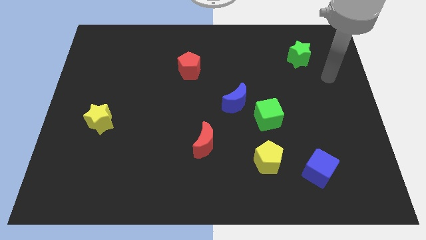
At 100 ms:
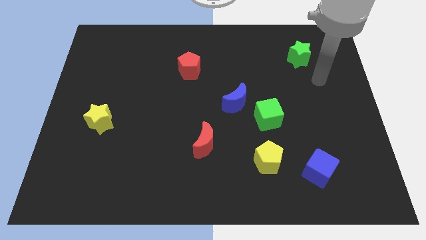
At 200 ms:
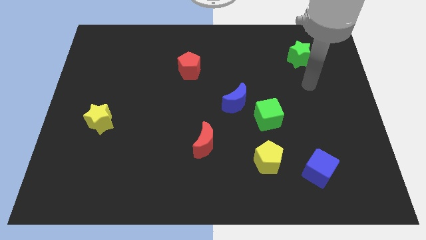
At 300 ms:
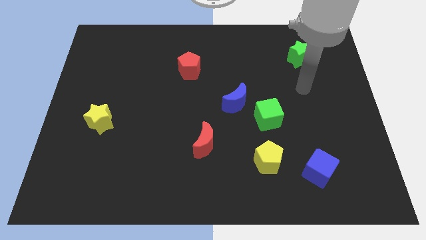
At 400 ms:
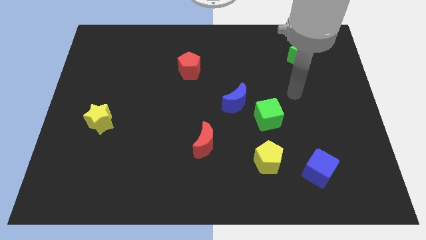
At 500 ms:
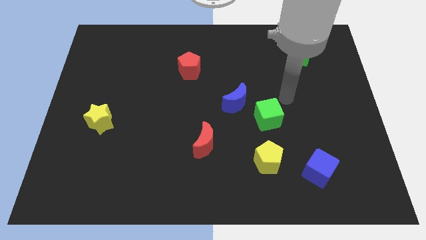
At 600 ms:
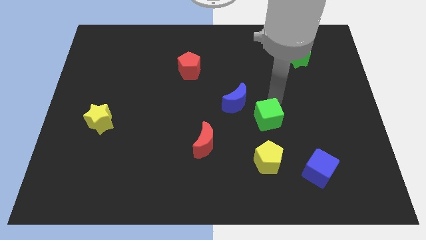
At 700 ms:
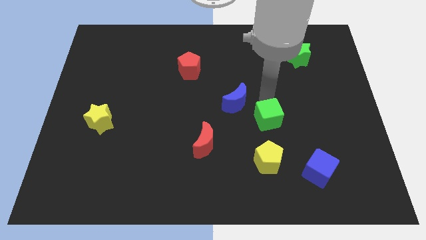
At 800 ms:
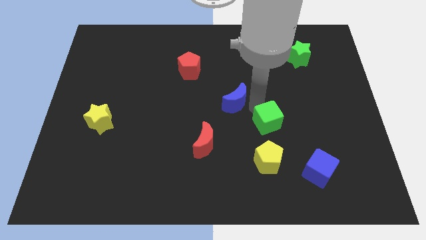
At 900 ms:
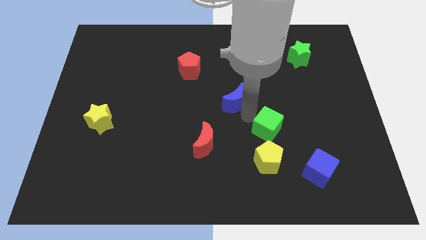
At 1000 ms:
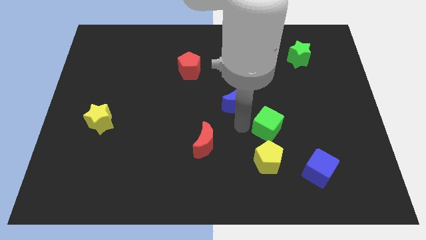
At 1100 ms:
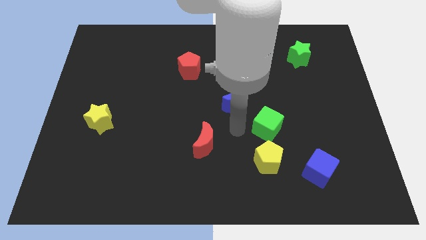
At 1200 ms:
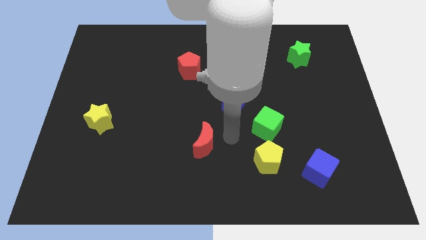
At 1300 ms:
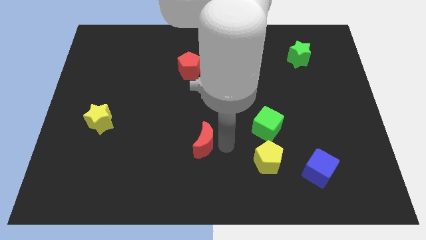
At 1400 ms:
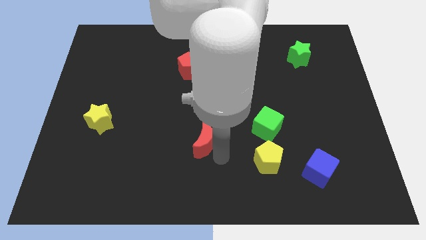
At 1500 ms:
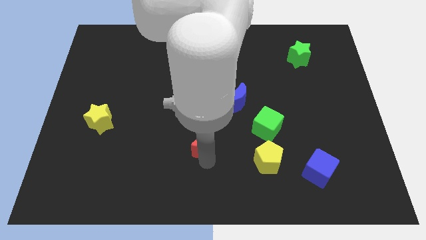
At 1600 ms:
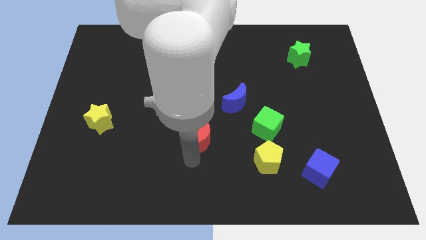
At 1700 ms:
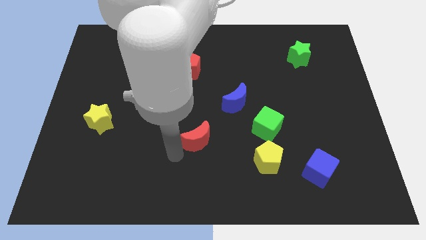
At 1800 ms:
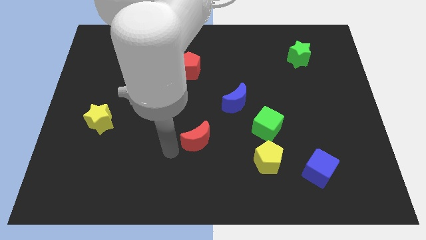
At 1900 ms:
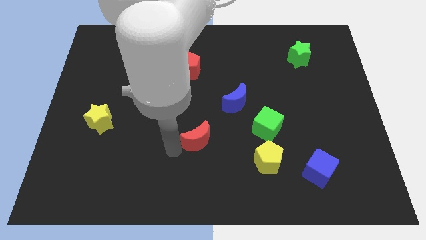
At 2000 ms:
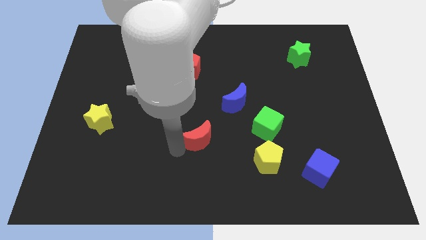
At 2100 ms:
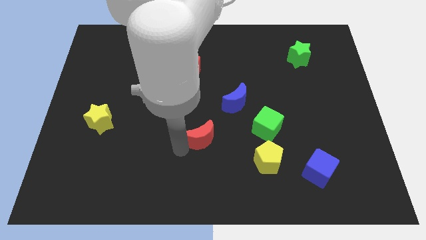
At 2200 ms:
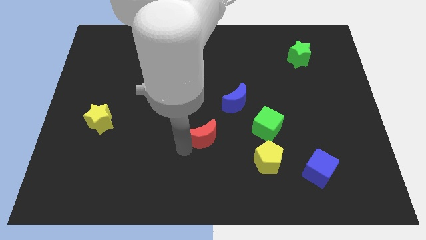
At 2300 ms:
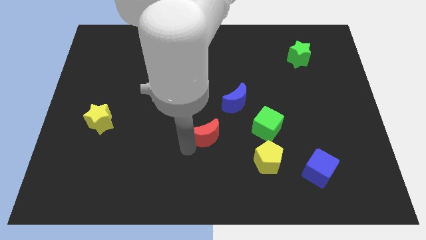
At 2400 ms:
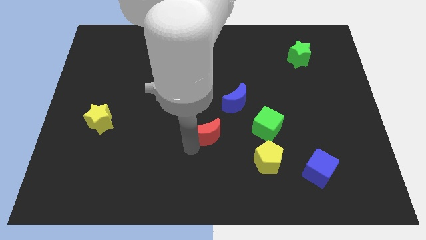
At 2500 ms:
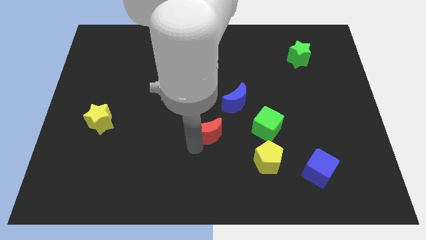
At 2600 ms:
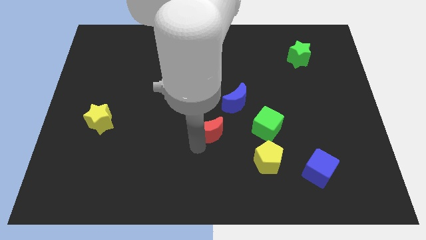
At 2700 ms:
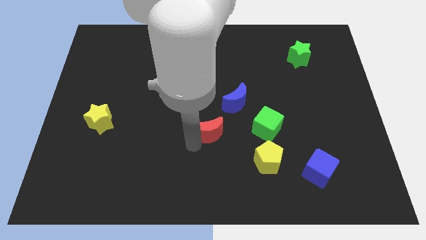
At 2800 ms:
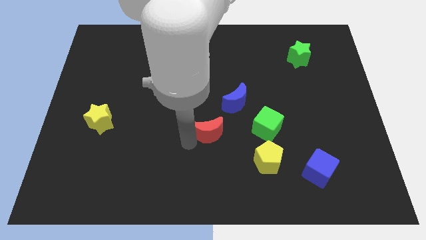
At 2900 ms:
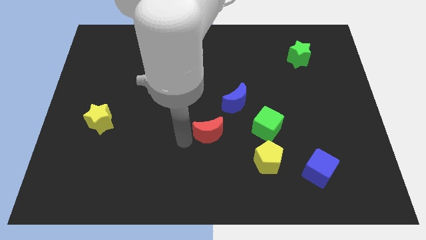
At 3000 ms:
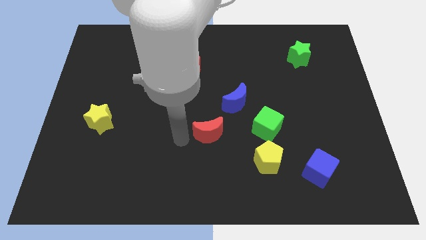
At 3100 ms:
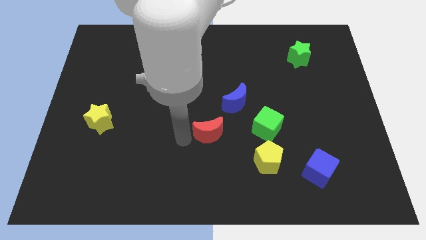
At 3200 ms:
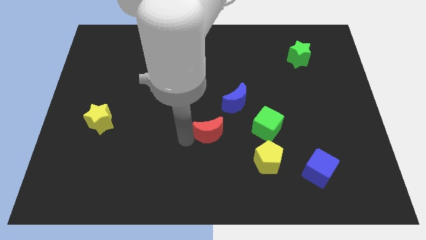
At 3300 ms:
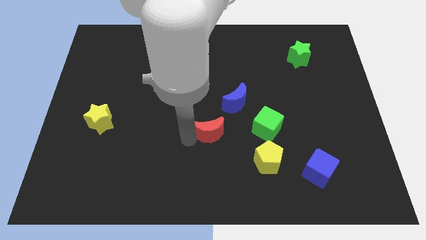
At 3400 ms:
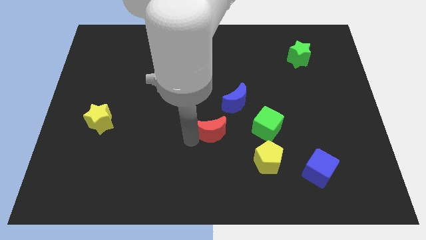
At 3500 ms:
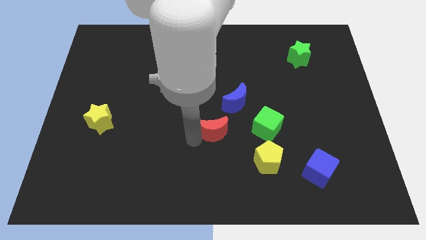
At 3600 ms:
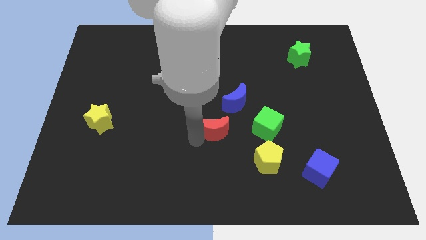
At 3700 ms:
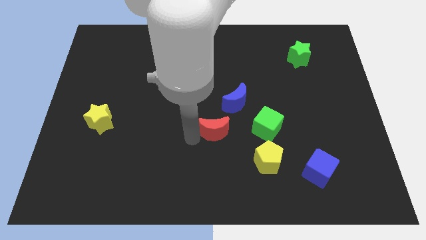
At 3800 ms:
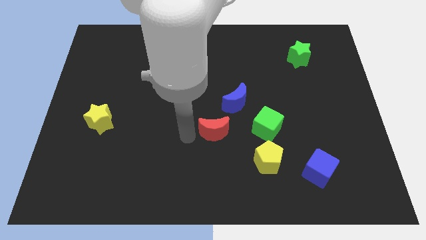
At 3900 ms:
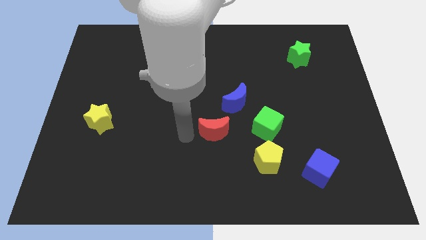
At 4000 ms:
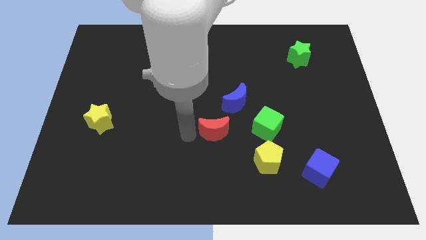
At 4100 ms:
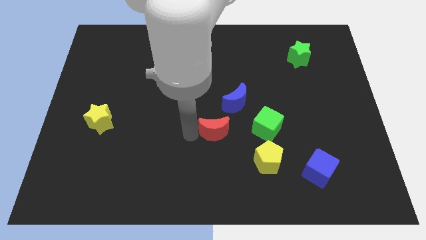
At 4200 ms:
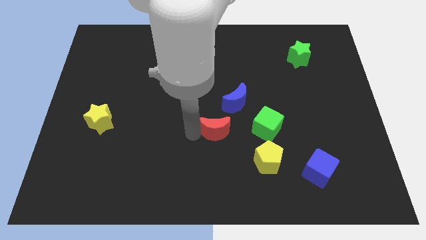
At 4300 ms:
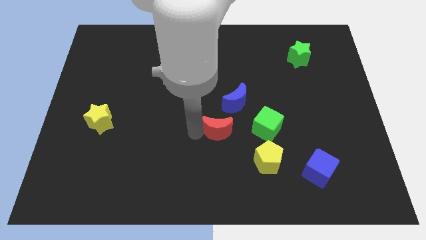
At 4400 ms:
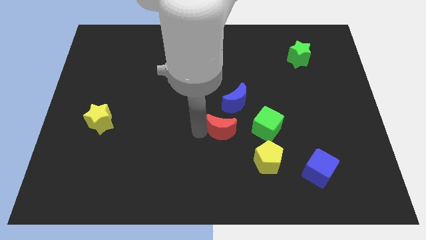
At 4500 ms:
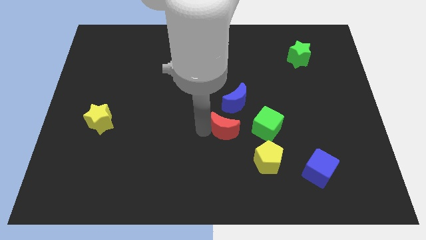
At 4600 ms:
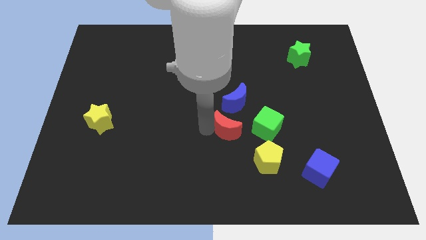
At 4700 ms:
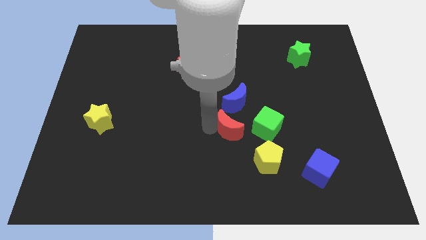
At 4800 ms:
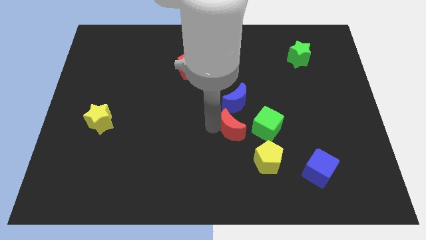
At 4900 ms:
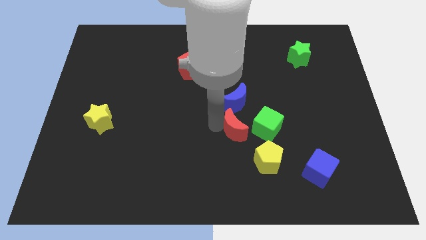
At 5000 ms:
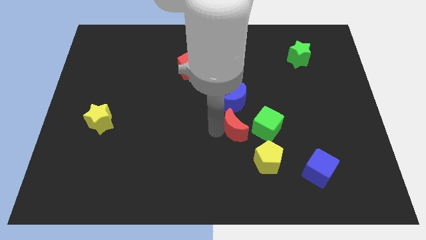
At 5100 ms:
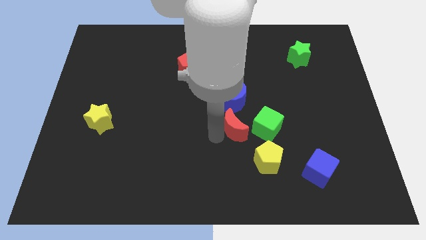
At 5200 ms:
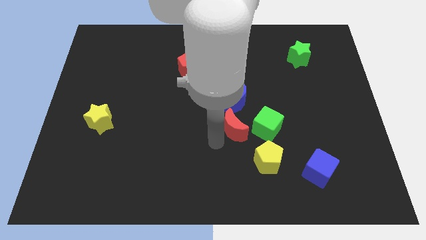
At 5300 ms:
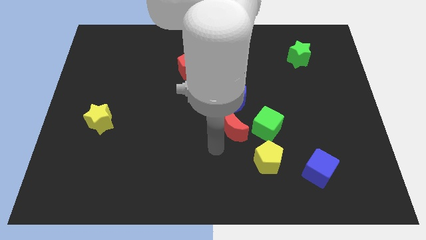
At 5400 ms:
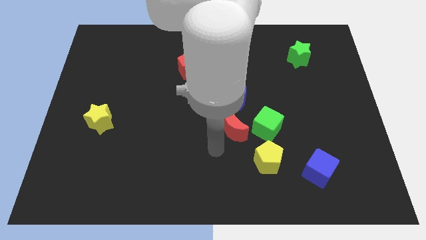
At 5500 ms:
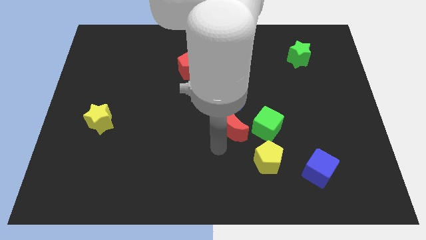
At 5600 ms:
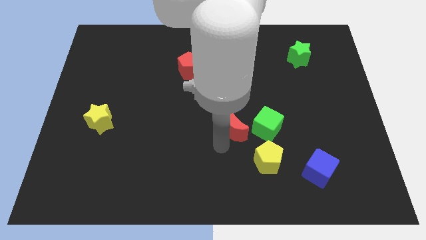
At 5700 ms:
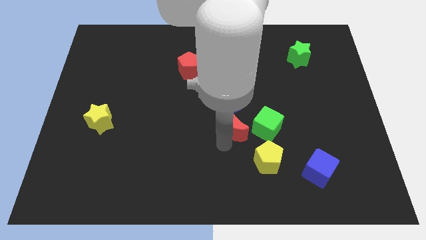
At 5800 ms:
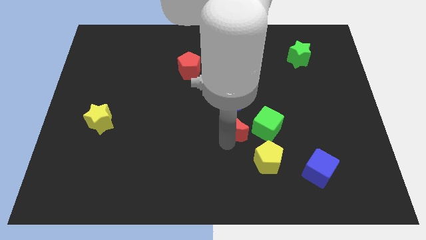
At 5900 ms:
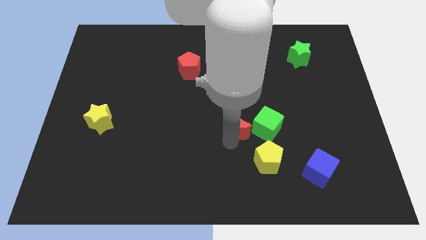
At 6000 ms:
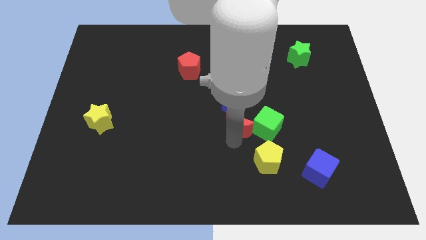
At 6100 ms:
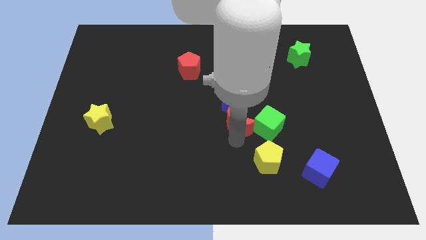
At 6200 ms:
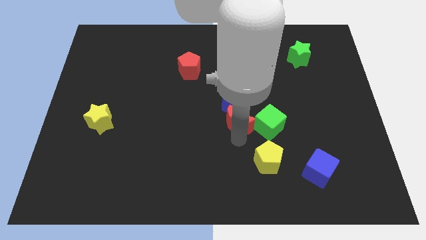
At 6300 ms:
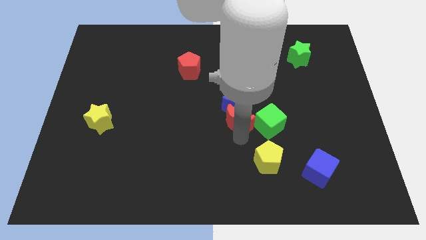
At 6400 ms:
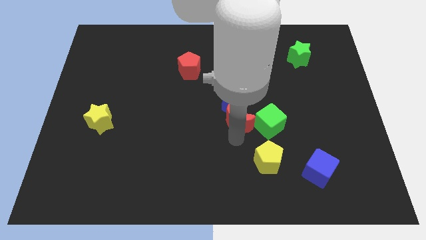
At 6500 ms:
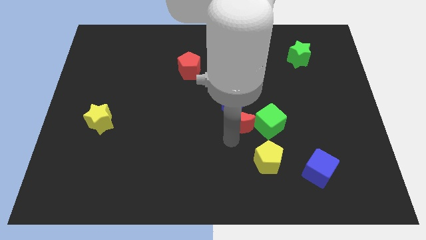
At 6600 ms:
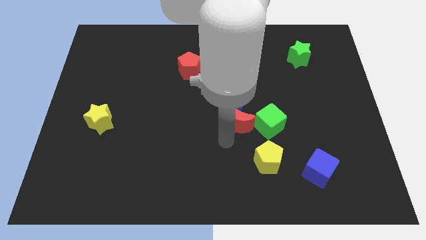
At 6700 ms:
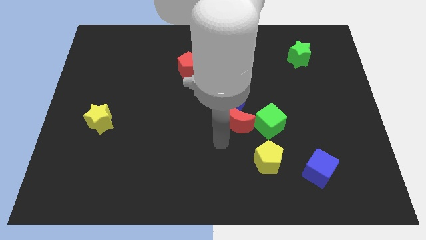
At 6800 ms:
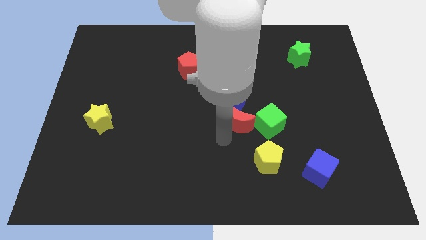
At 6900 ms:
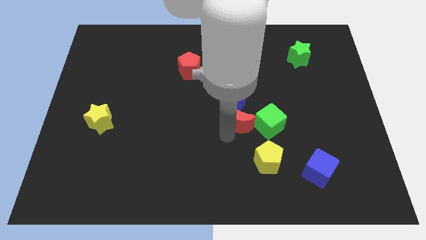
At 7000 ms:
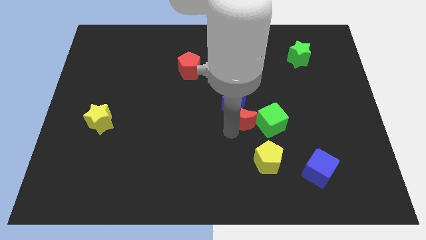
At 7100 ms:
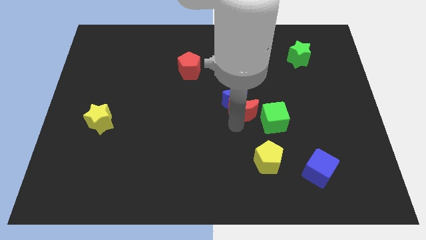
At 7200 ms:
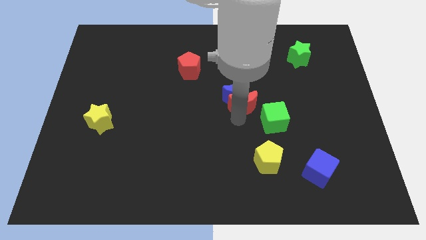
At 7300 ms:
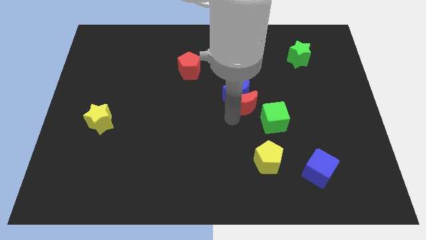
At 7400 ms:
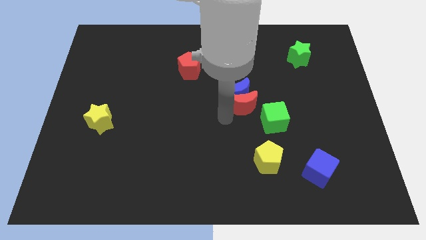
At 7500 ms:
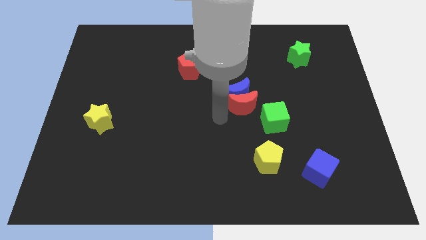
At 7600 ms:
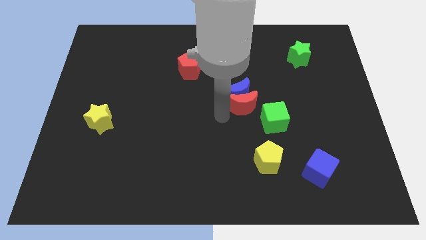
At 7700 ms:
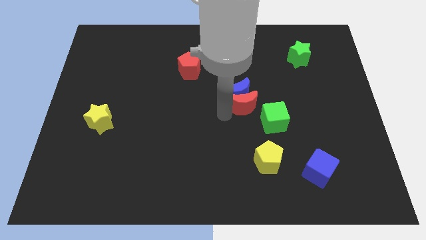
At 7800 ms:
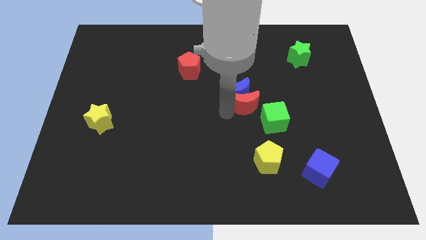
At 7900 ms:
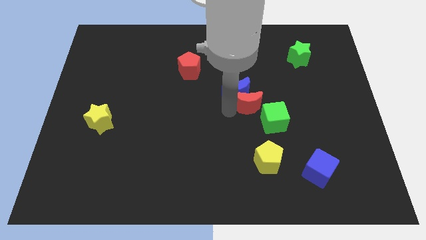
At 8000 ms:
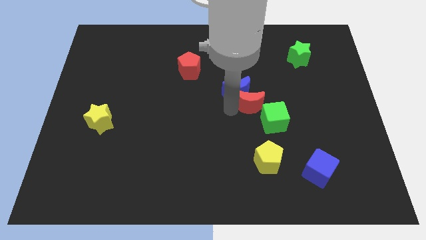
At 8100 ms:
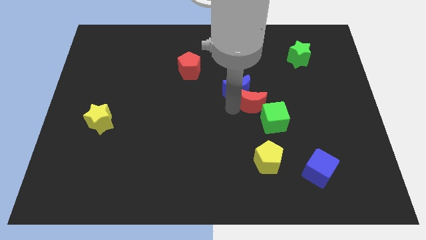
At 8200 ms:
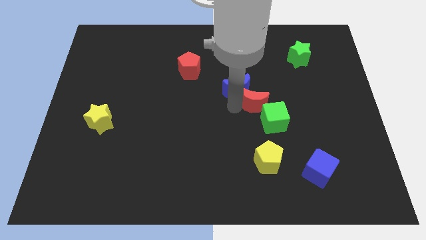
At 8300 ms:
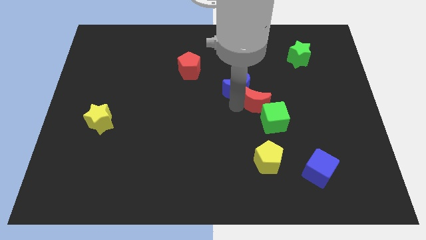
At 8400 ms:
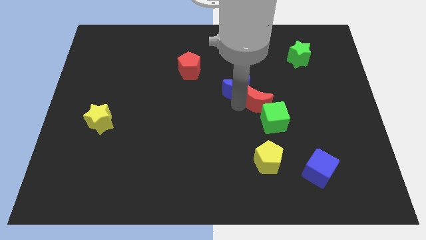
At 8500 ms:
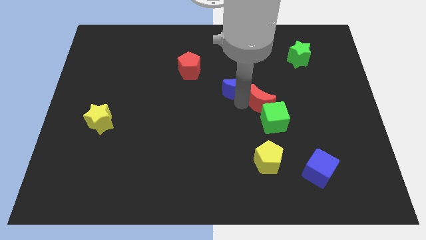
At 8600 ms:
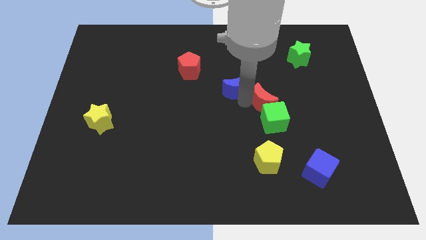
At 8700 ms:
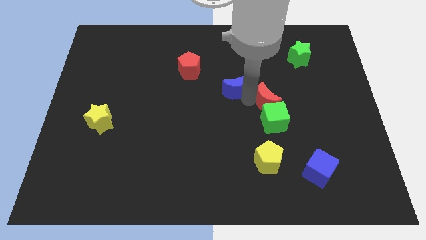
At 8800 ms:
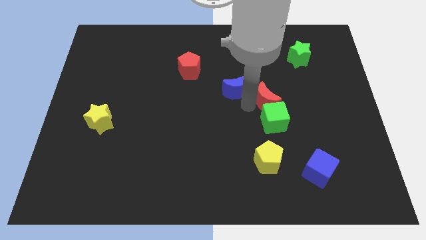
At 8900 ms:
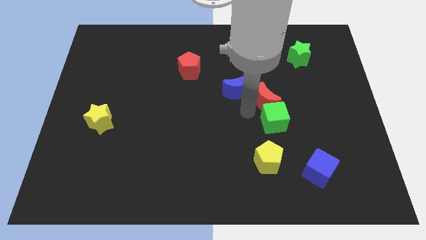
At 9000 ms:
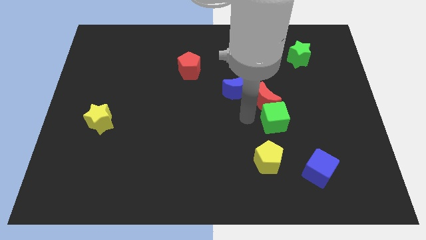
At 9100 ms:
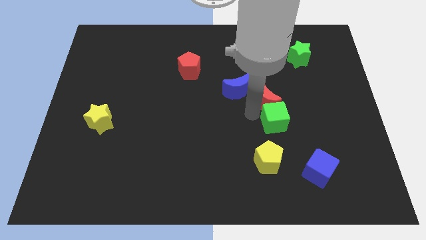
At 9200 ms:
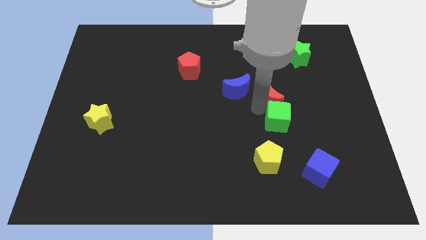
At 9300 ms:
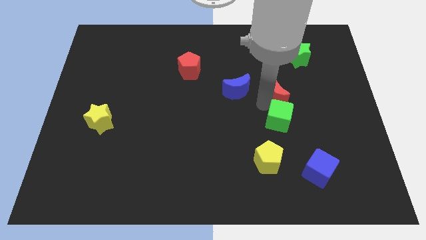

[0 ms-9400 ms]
push the red moon up and right
